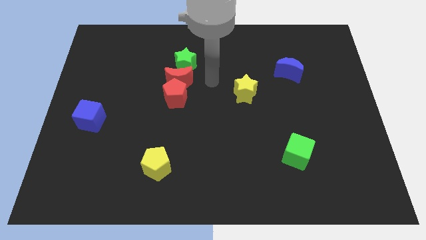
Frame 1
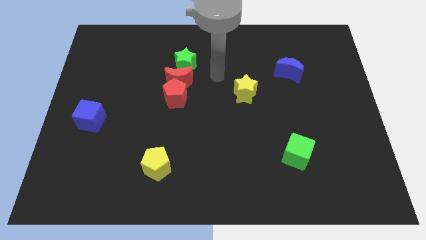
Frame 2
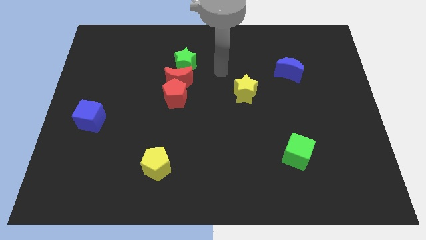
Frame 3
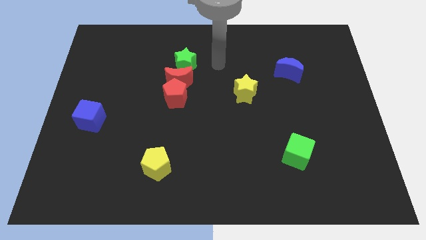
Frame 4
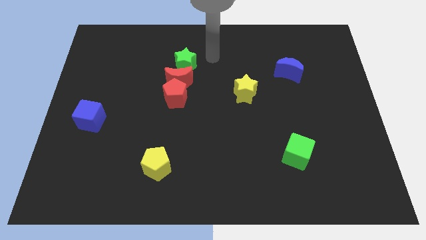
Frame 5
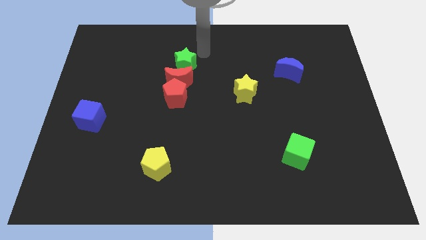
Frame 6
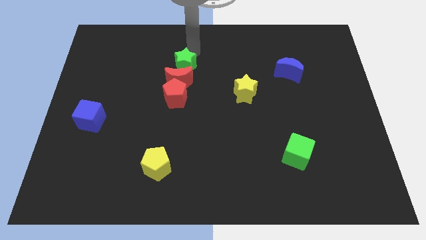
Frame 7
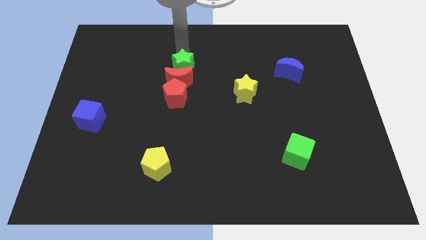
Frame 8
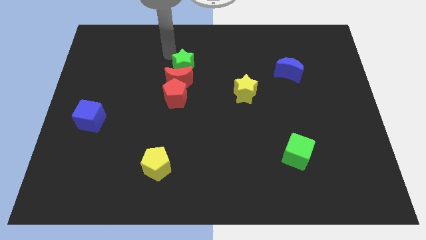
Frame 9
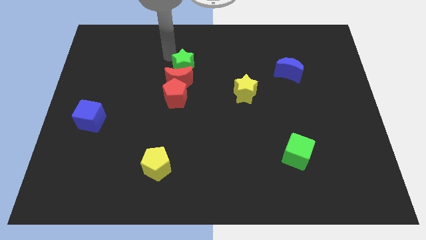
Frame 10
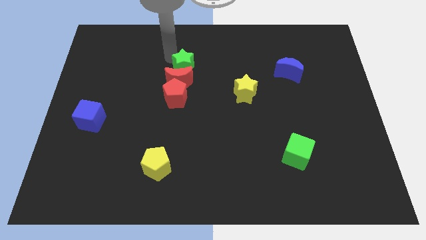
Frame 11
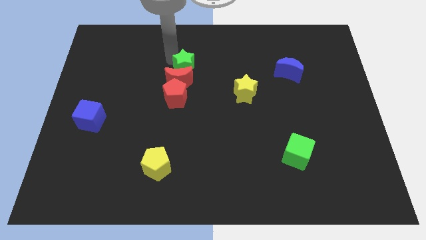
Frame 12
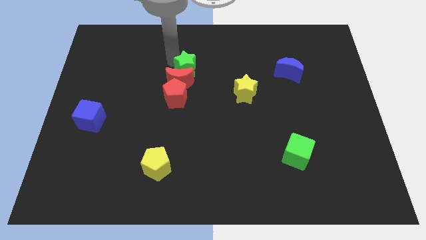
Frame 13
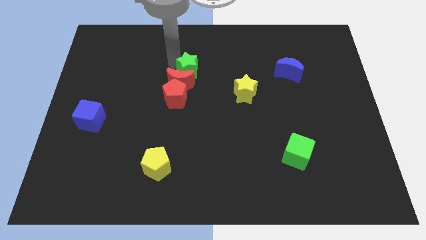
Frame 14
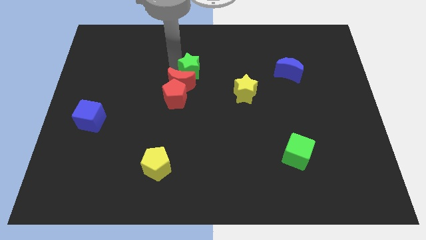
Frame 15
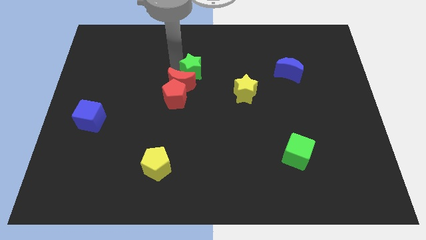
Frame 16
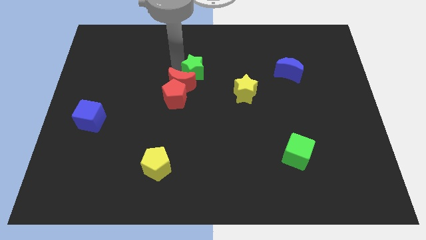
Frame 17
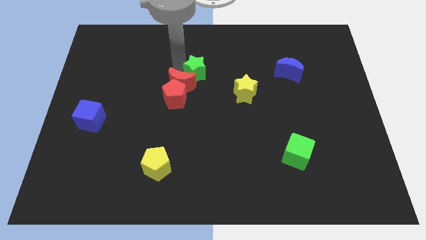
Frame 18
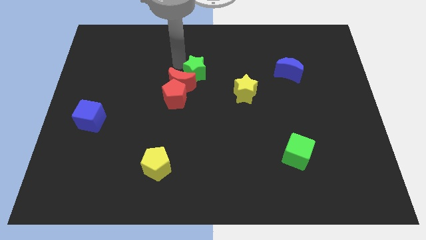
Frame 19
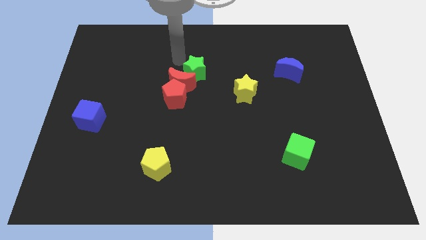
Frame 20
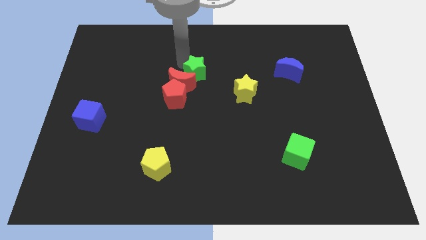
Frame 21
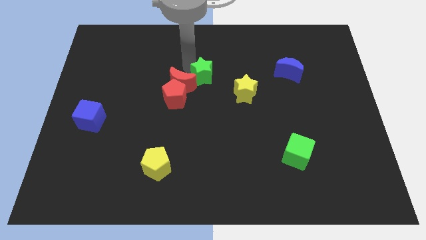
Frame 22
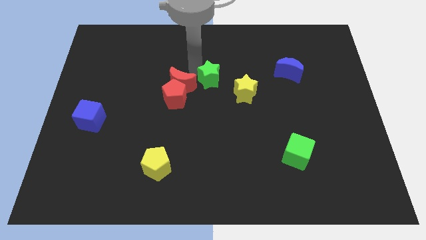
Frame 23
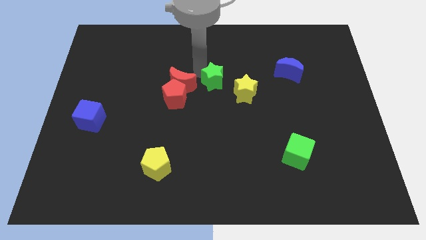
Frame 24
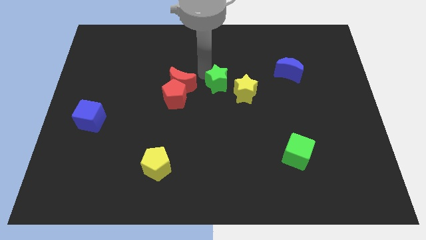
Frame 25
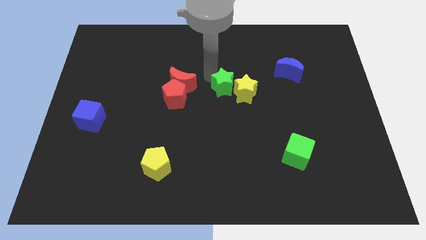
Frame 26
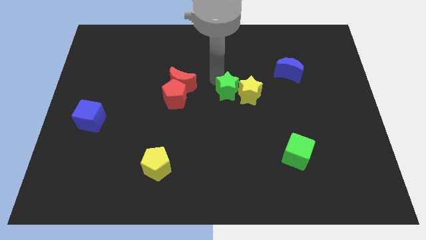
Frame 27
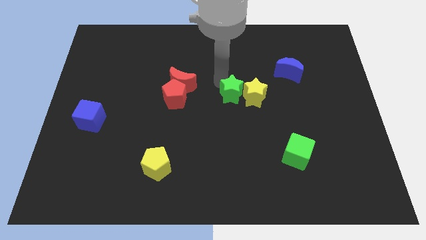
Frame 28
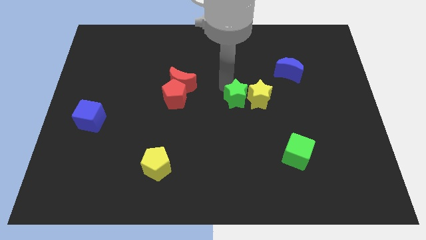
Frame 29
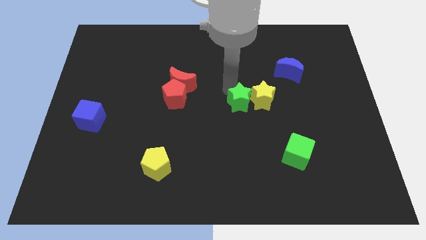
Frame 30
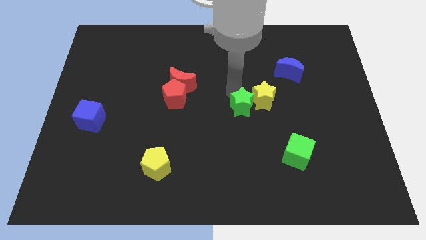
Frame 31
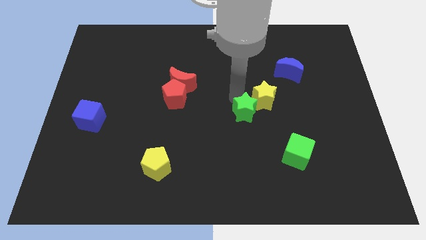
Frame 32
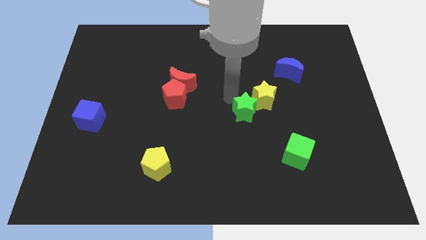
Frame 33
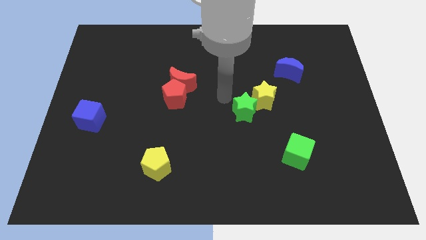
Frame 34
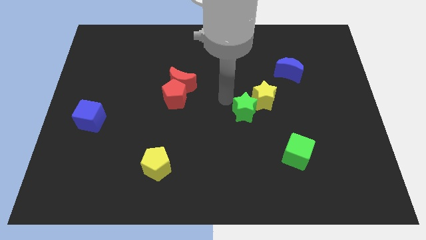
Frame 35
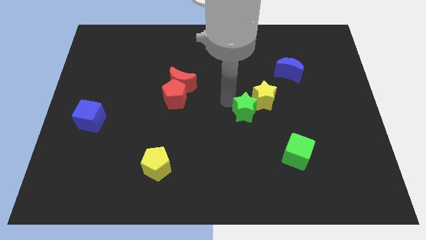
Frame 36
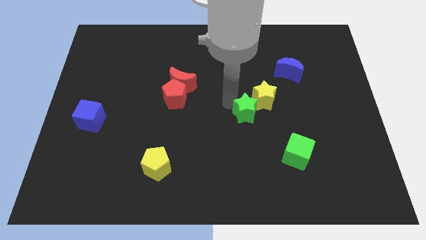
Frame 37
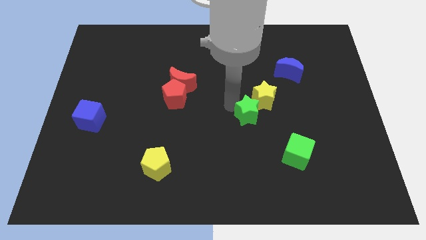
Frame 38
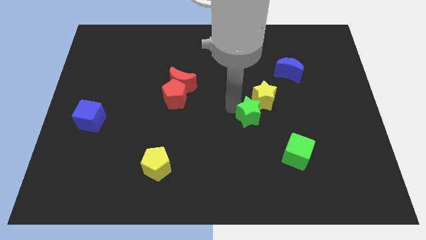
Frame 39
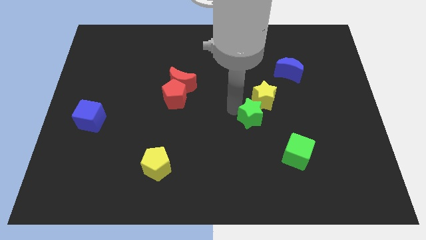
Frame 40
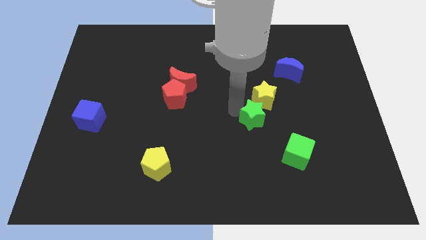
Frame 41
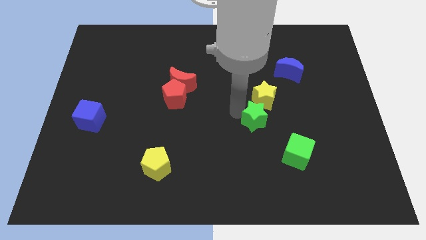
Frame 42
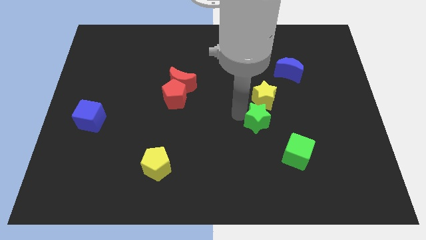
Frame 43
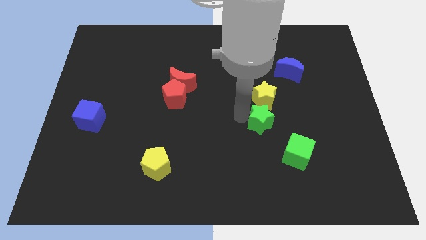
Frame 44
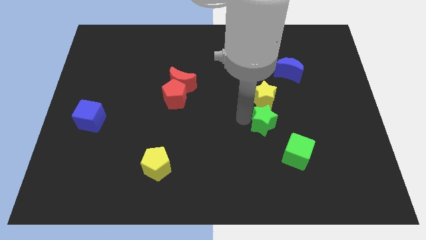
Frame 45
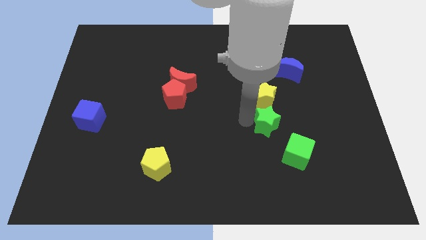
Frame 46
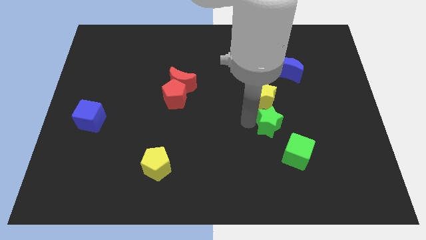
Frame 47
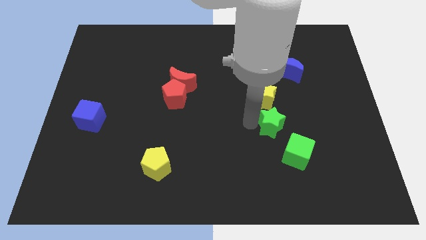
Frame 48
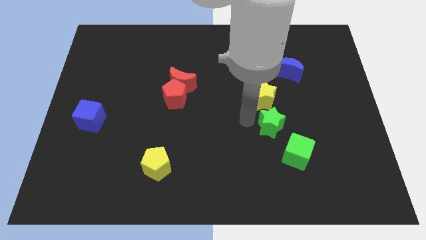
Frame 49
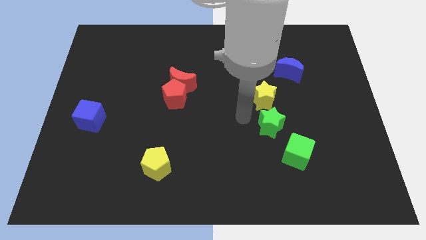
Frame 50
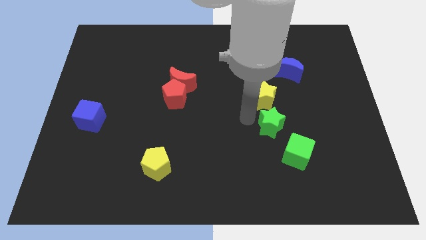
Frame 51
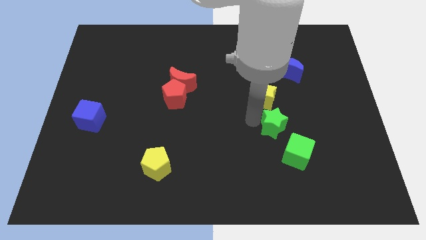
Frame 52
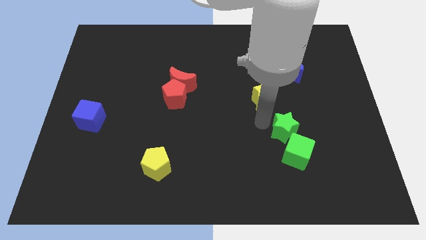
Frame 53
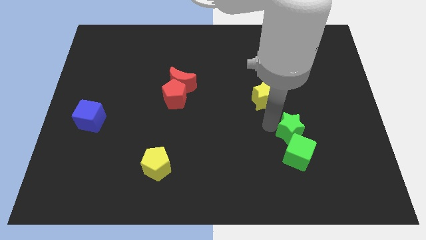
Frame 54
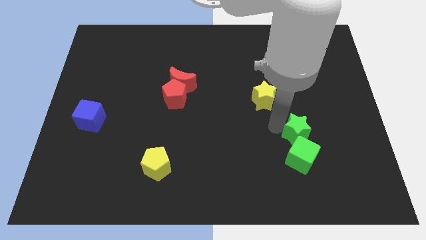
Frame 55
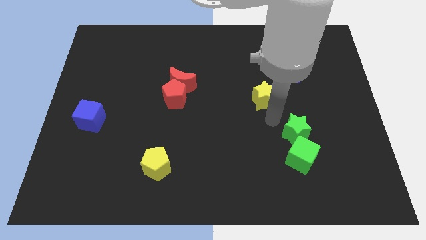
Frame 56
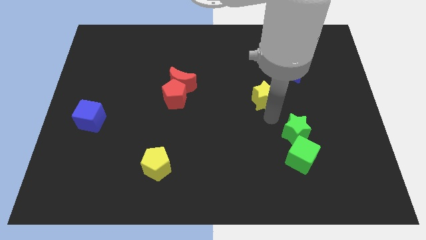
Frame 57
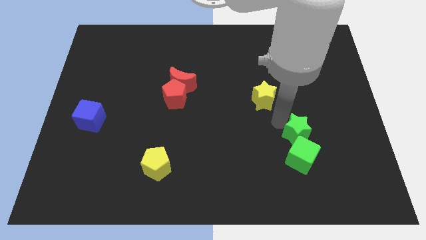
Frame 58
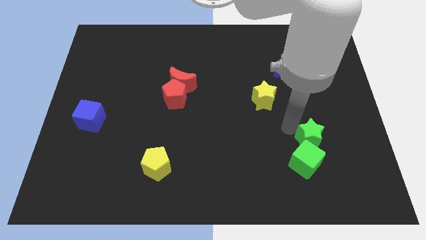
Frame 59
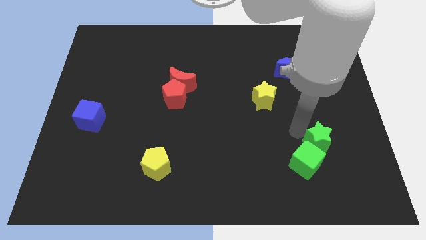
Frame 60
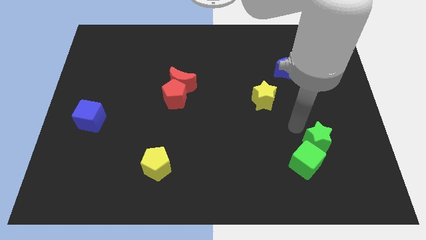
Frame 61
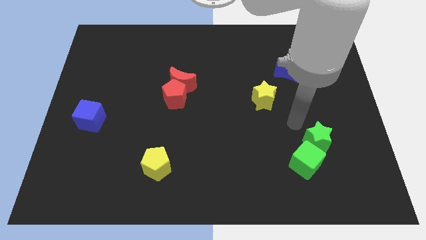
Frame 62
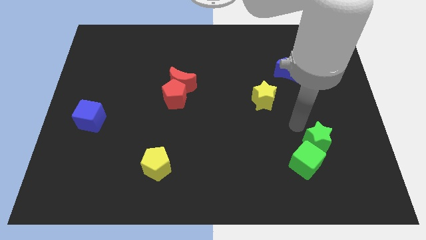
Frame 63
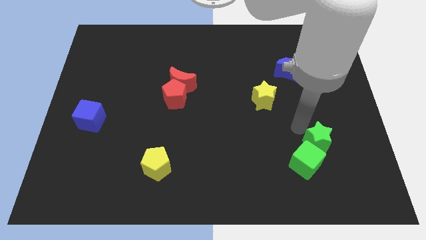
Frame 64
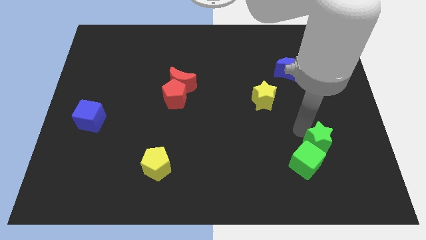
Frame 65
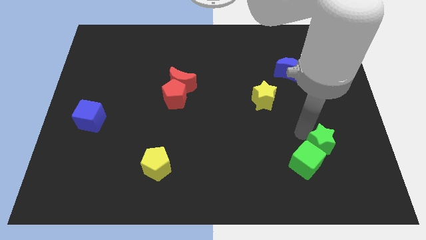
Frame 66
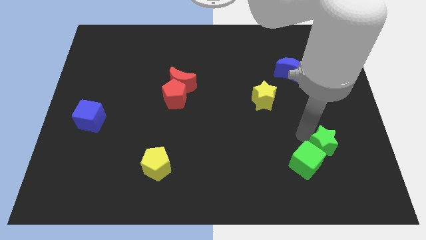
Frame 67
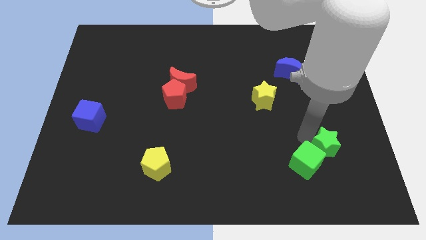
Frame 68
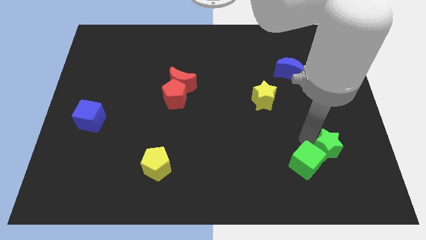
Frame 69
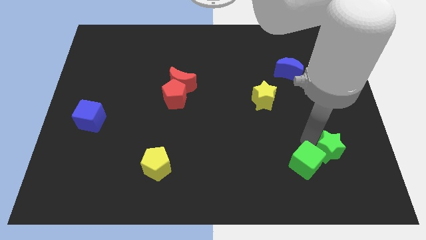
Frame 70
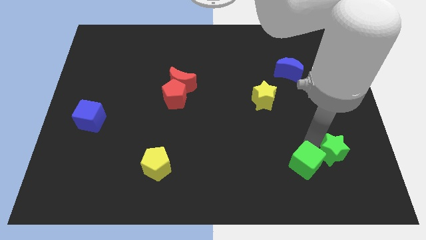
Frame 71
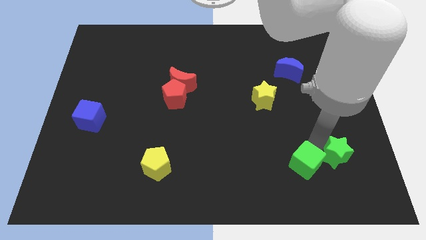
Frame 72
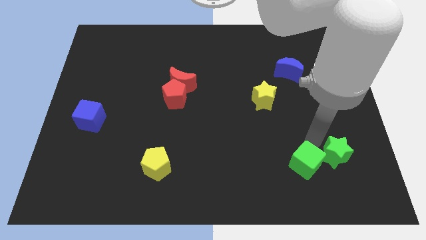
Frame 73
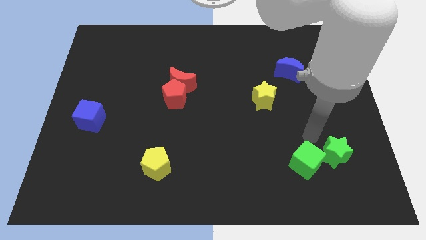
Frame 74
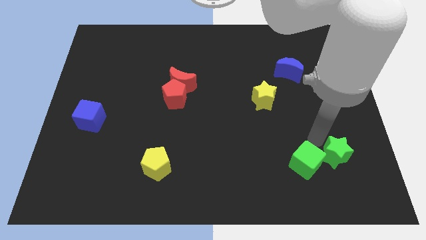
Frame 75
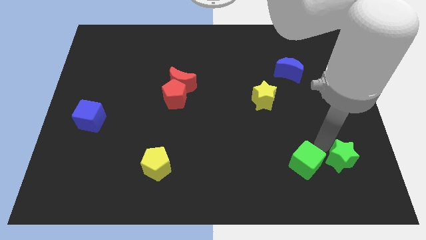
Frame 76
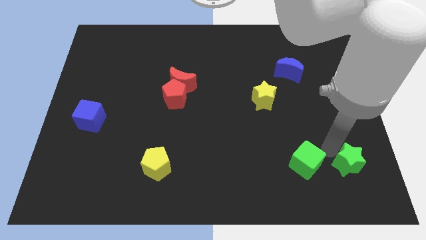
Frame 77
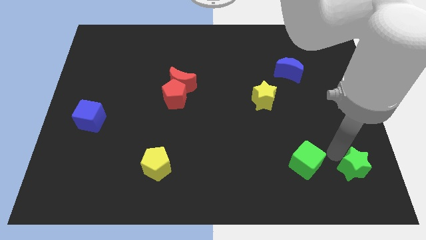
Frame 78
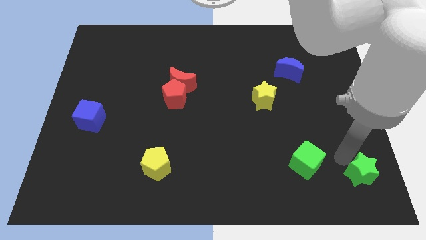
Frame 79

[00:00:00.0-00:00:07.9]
put the green star to the lower right corner
